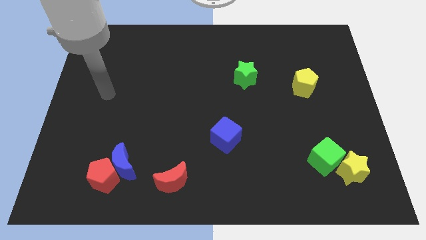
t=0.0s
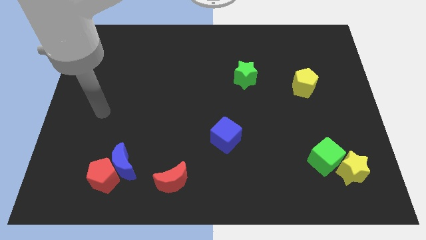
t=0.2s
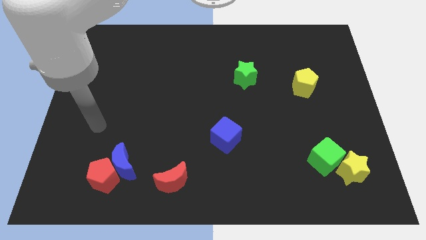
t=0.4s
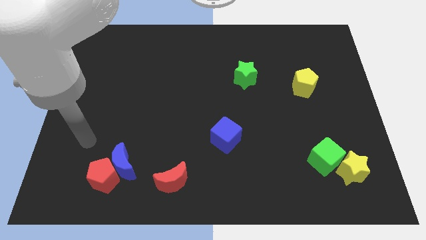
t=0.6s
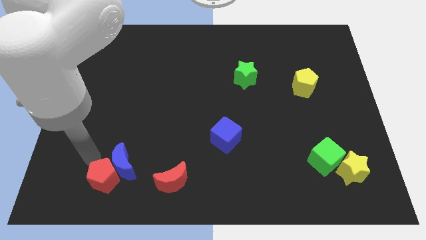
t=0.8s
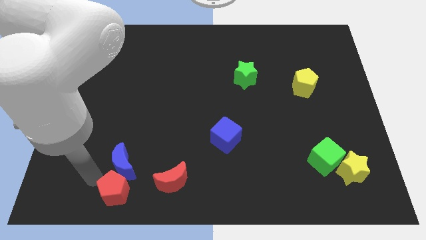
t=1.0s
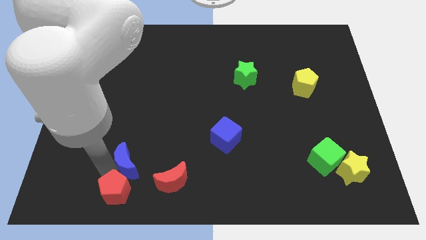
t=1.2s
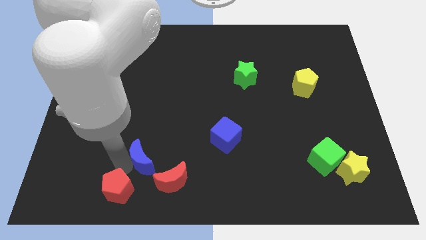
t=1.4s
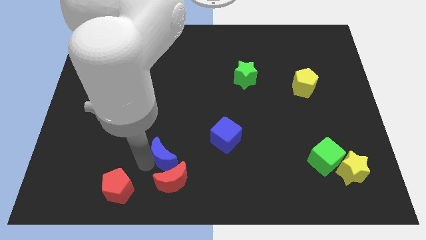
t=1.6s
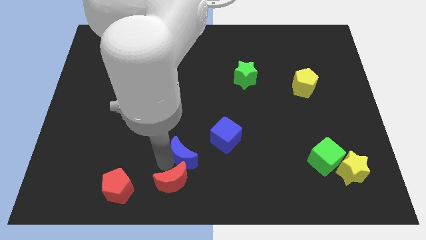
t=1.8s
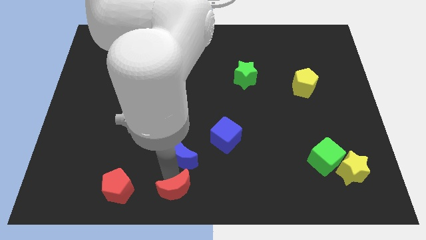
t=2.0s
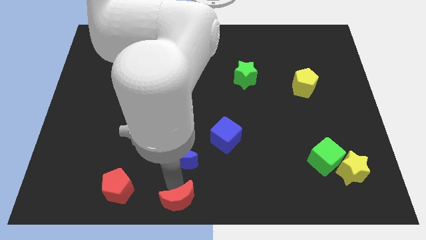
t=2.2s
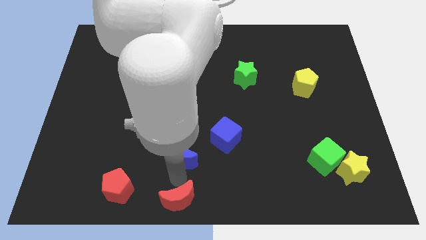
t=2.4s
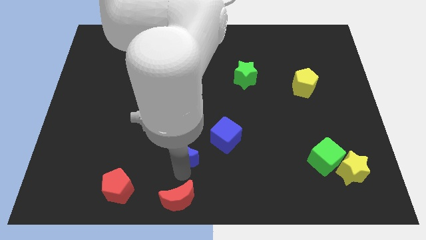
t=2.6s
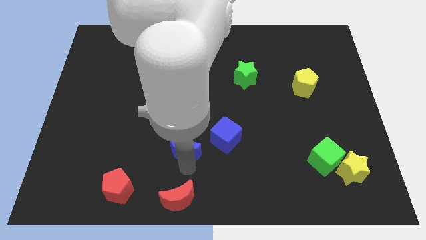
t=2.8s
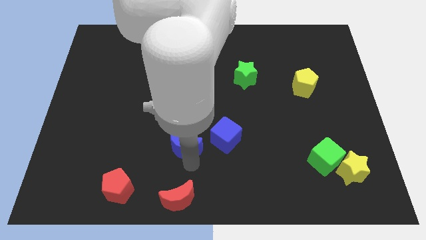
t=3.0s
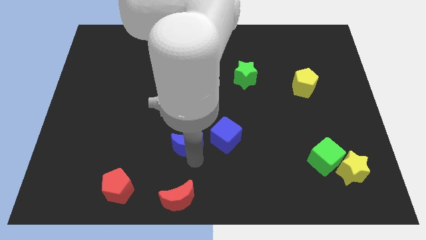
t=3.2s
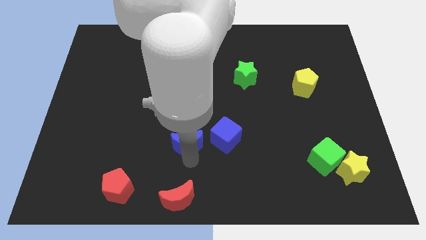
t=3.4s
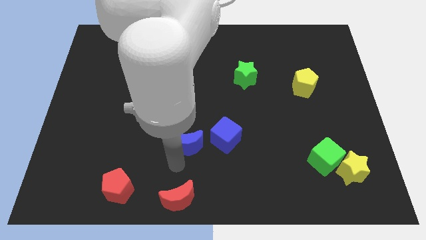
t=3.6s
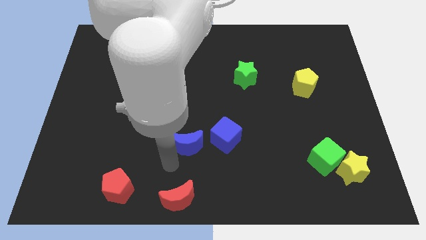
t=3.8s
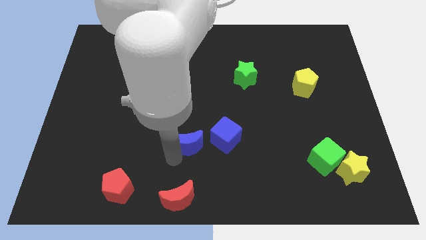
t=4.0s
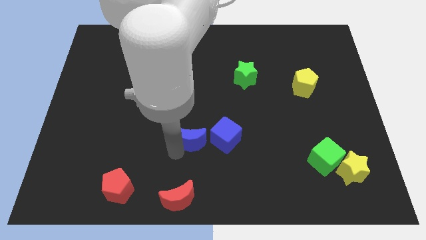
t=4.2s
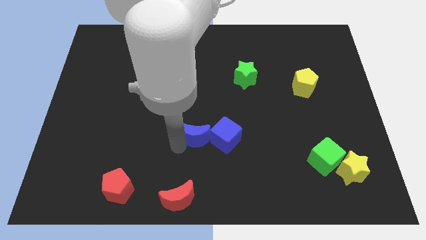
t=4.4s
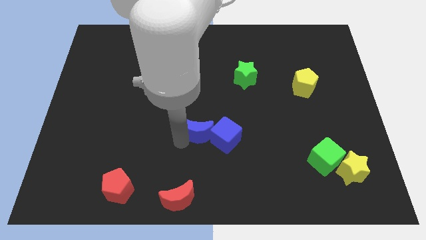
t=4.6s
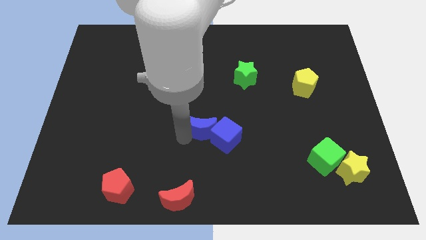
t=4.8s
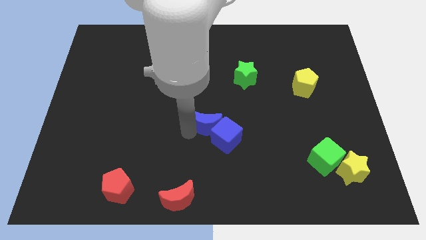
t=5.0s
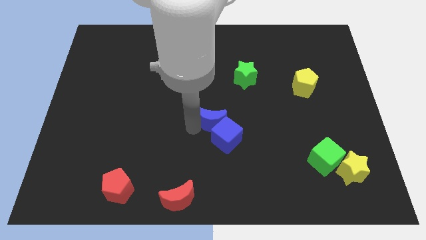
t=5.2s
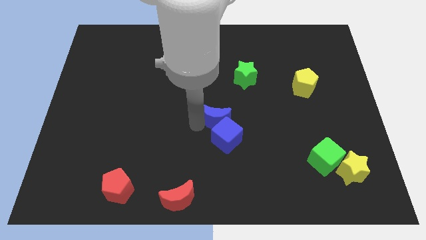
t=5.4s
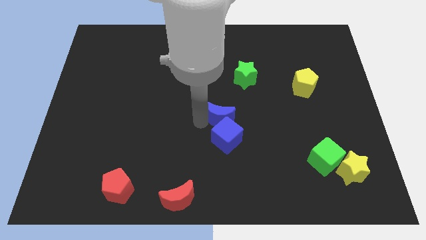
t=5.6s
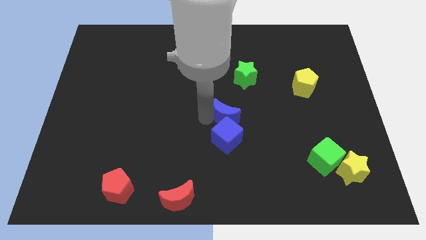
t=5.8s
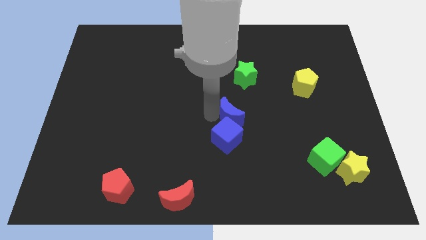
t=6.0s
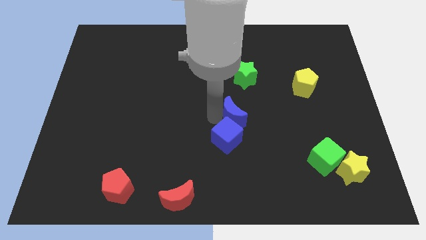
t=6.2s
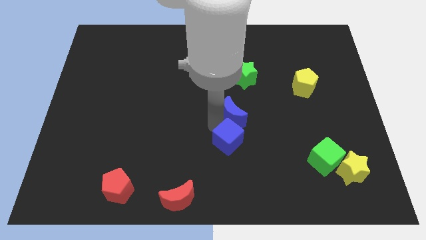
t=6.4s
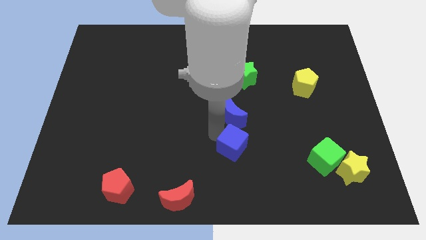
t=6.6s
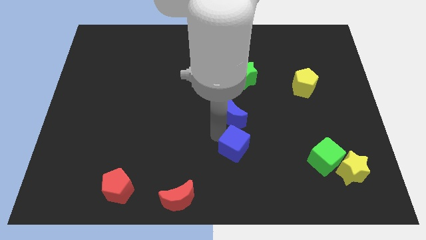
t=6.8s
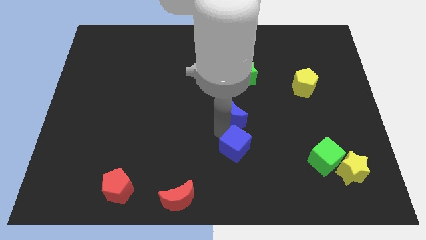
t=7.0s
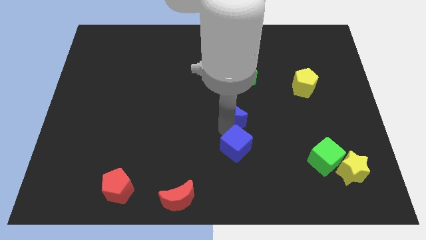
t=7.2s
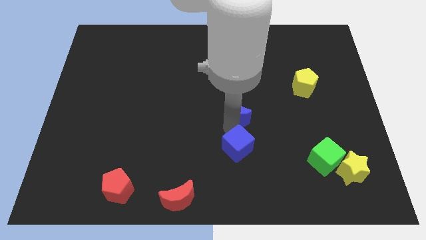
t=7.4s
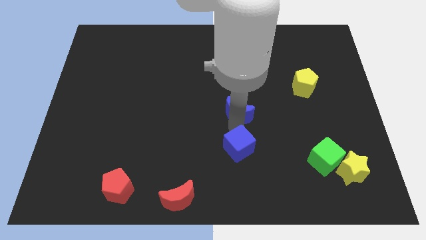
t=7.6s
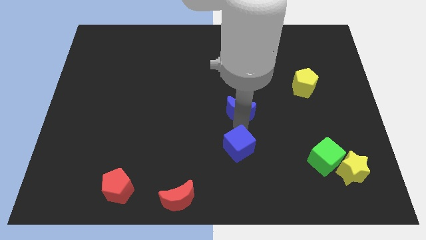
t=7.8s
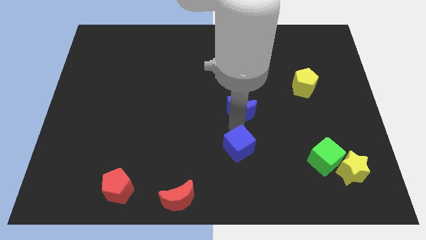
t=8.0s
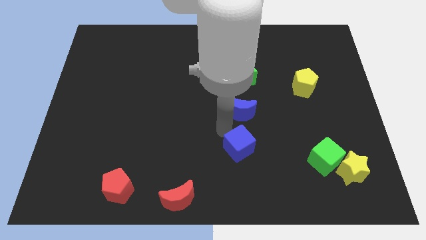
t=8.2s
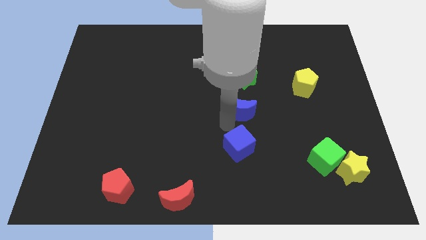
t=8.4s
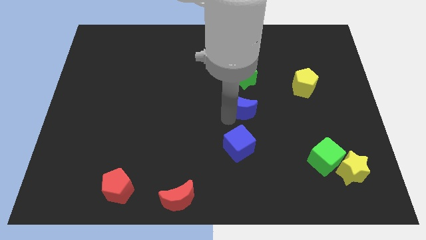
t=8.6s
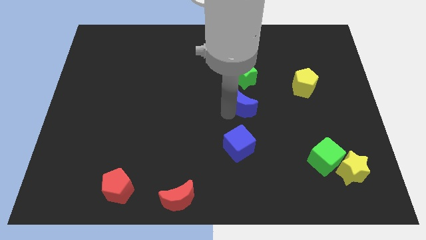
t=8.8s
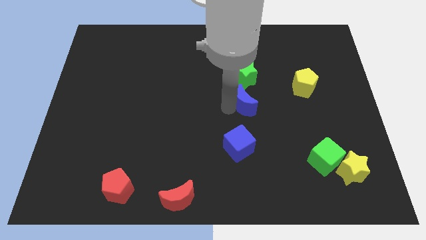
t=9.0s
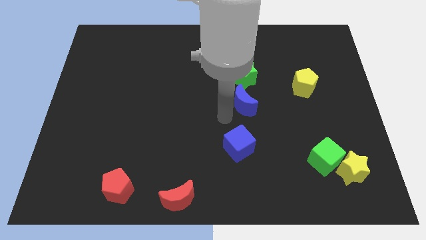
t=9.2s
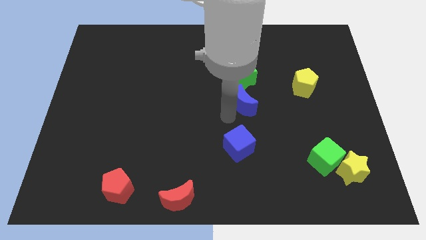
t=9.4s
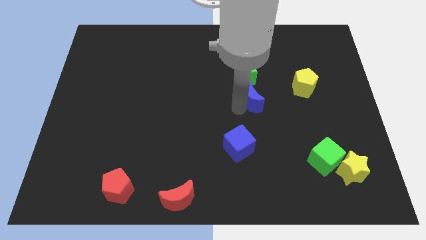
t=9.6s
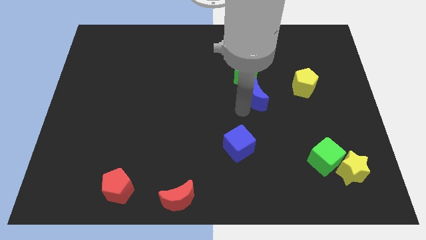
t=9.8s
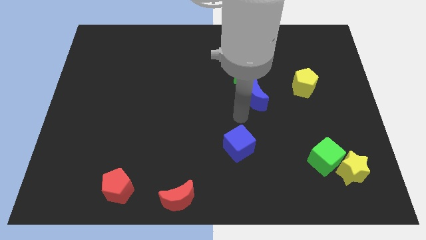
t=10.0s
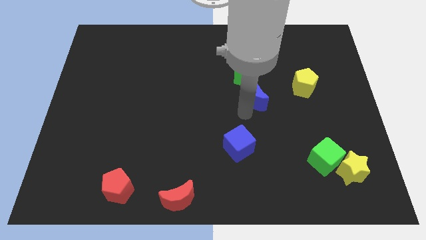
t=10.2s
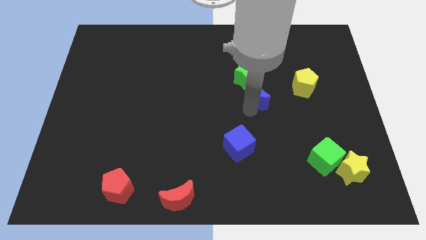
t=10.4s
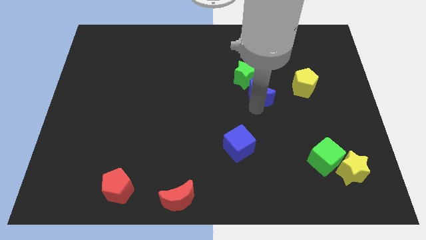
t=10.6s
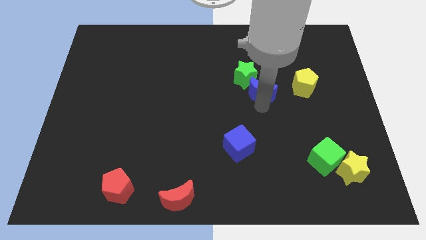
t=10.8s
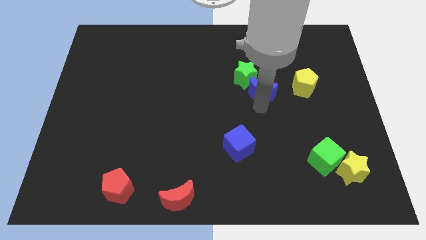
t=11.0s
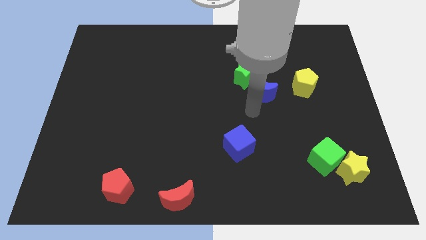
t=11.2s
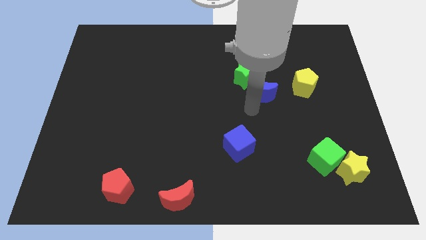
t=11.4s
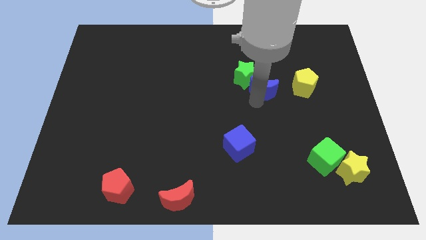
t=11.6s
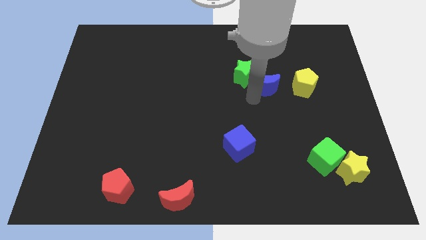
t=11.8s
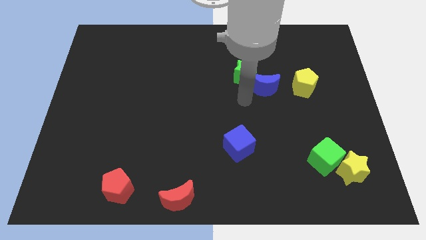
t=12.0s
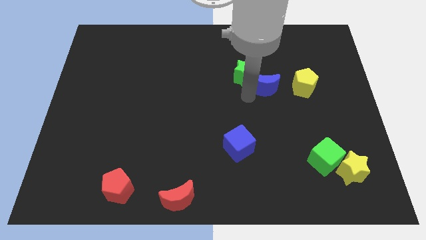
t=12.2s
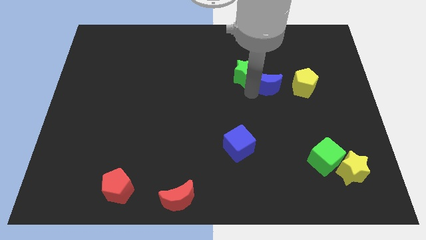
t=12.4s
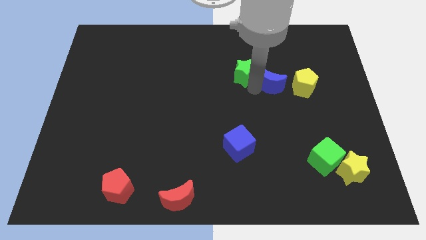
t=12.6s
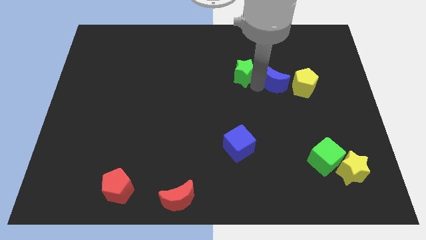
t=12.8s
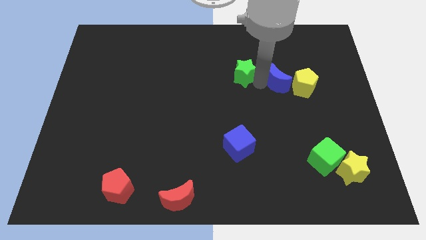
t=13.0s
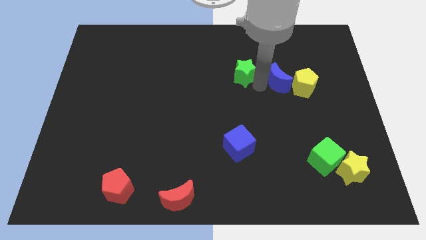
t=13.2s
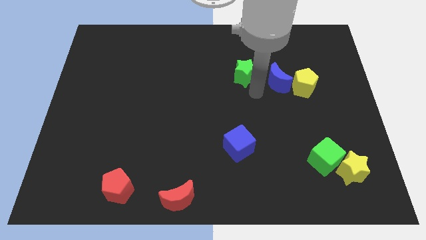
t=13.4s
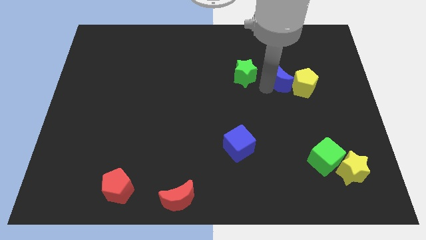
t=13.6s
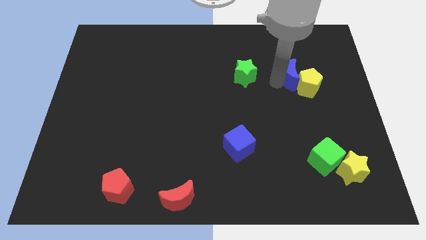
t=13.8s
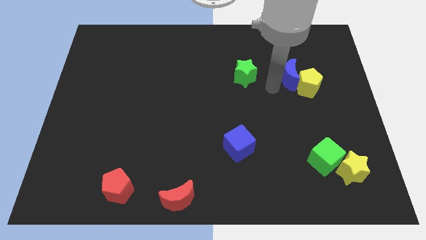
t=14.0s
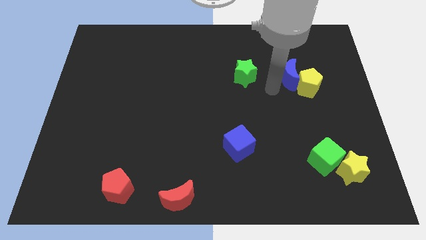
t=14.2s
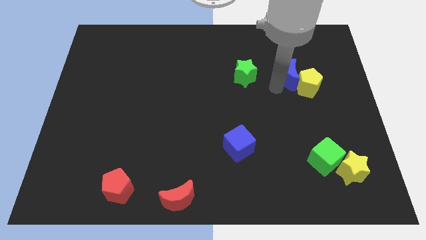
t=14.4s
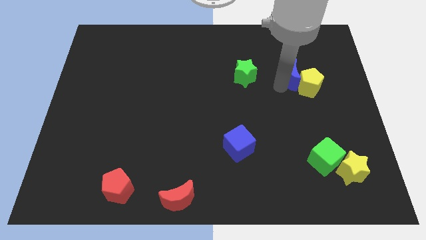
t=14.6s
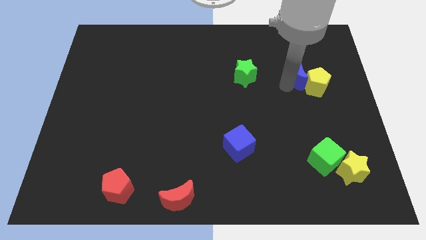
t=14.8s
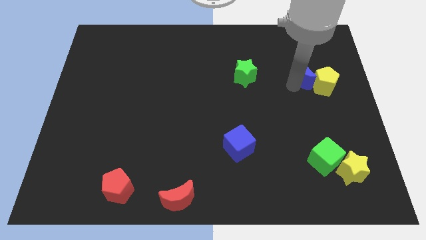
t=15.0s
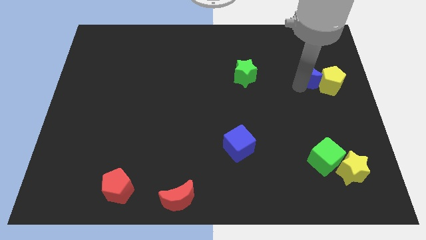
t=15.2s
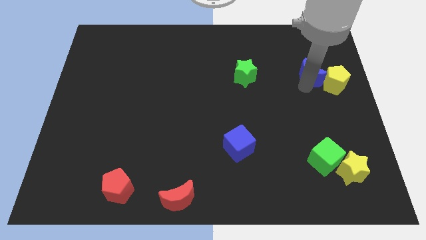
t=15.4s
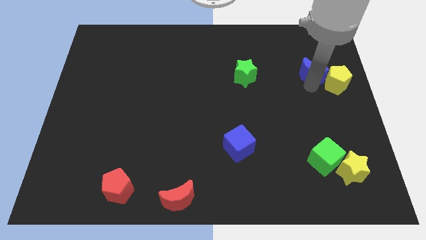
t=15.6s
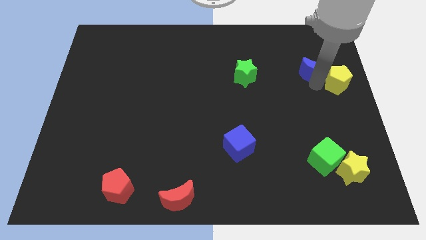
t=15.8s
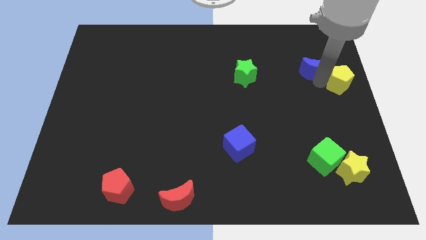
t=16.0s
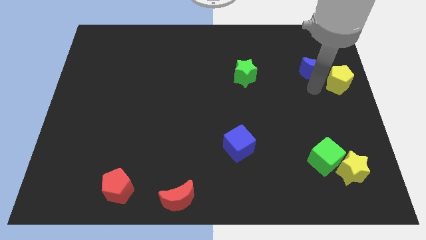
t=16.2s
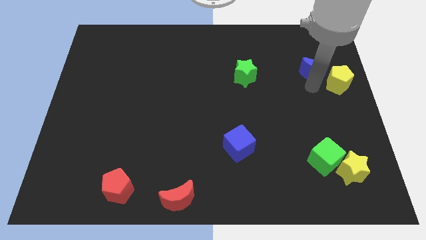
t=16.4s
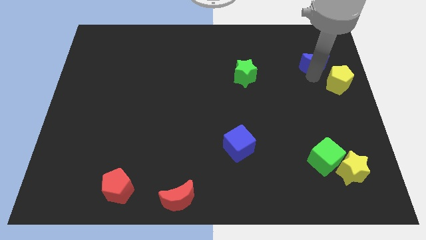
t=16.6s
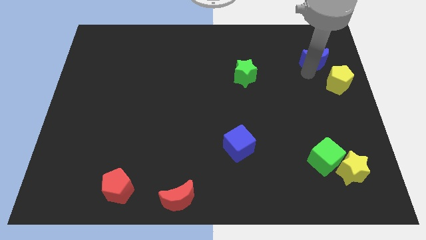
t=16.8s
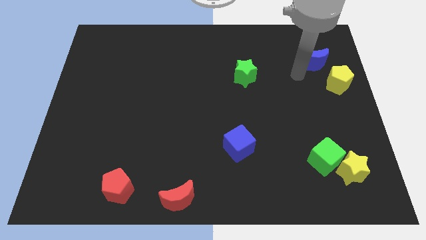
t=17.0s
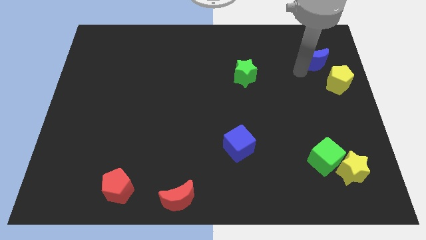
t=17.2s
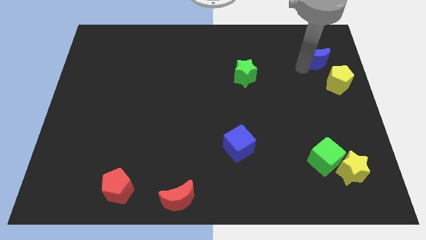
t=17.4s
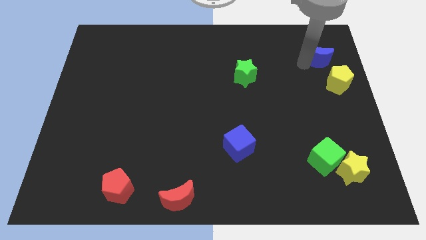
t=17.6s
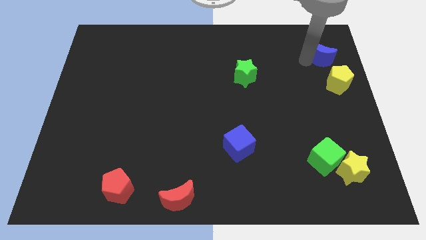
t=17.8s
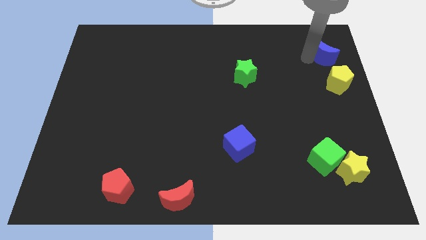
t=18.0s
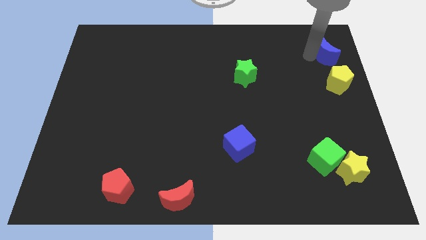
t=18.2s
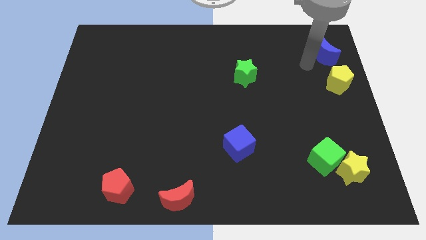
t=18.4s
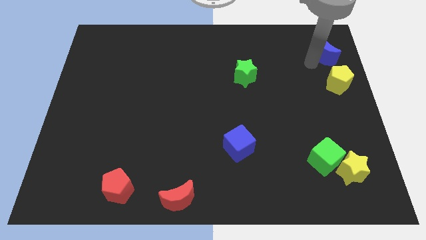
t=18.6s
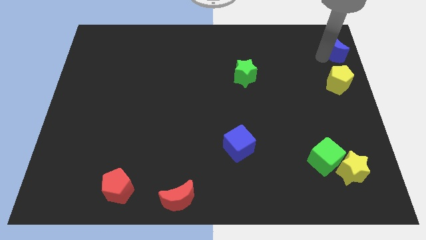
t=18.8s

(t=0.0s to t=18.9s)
put the blue moon to the top right of the board
